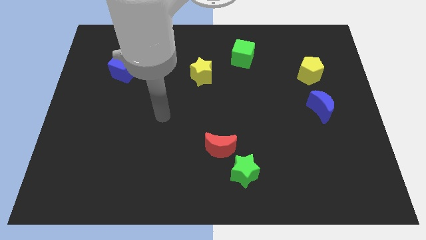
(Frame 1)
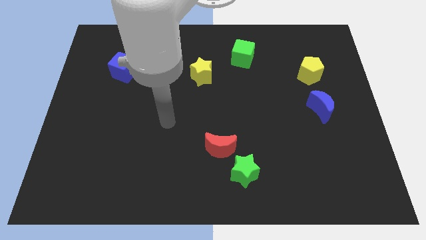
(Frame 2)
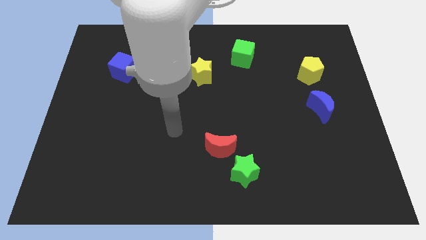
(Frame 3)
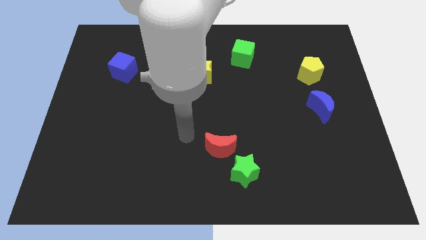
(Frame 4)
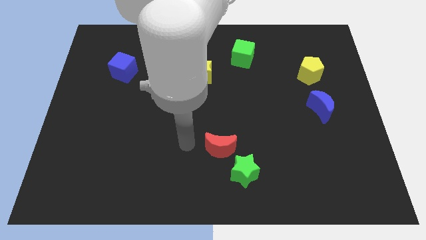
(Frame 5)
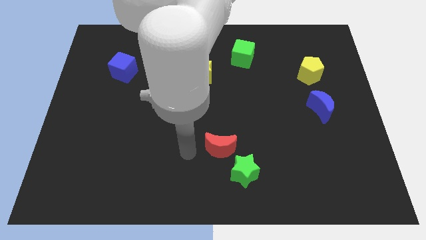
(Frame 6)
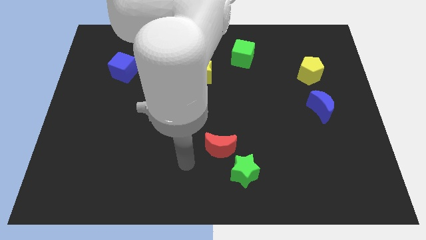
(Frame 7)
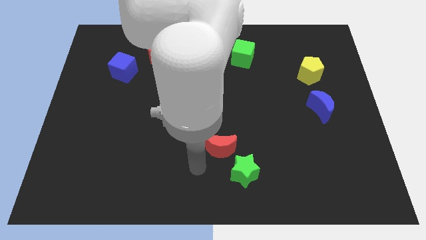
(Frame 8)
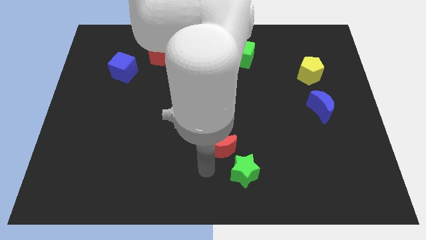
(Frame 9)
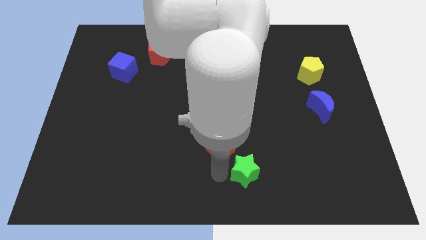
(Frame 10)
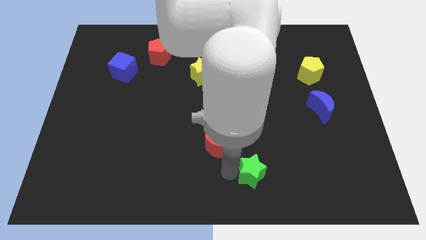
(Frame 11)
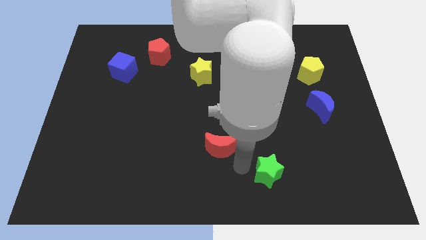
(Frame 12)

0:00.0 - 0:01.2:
move the red moon away from the green star

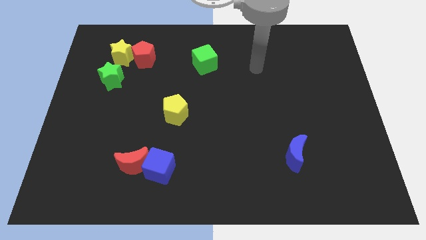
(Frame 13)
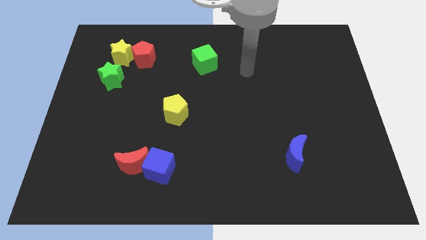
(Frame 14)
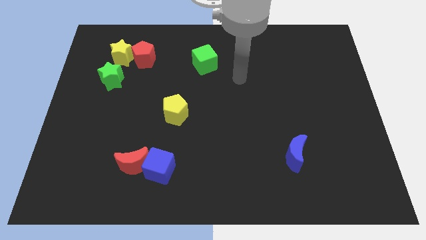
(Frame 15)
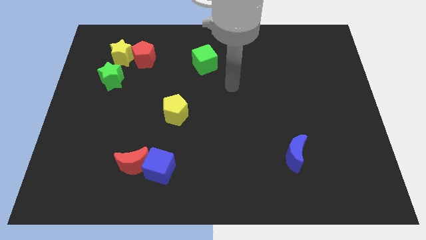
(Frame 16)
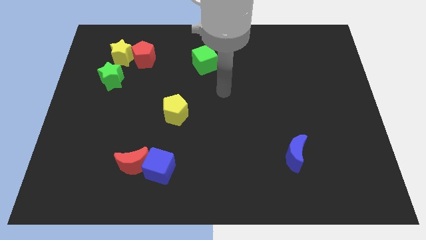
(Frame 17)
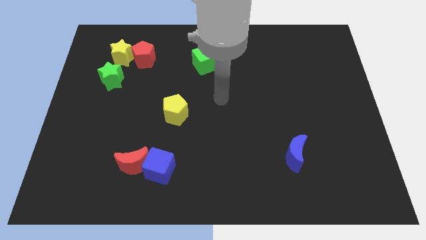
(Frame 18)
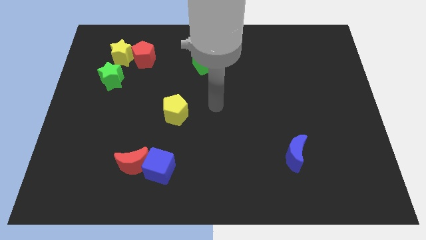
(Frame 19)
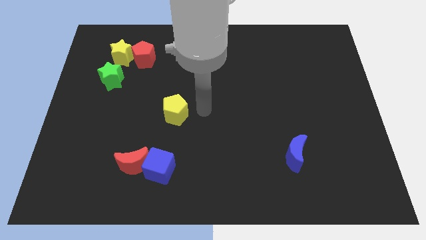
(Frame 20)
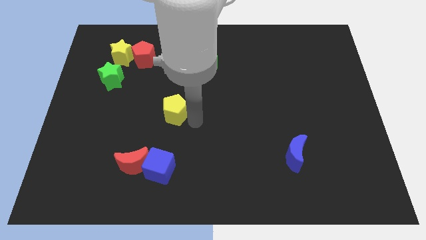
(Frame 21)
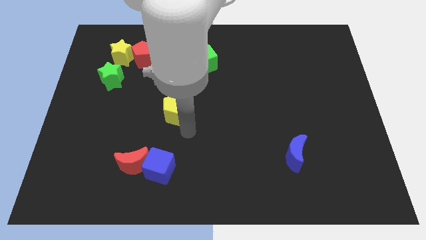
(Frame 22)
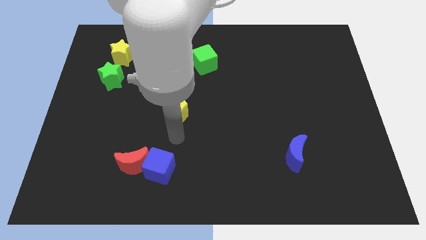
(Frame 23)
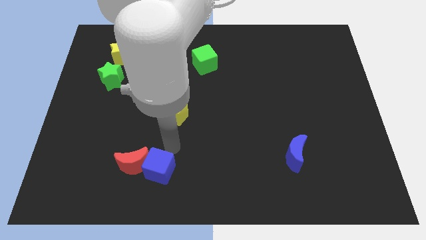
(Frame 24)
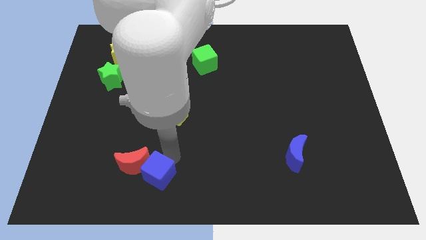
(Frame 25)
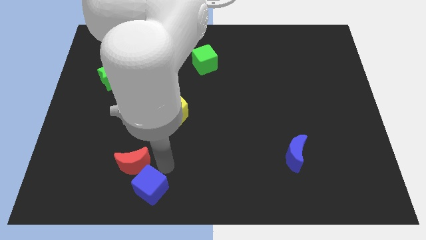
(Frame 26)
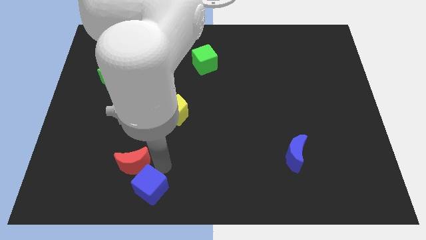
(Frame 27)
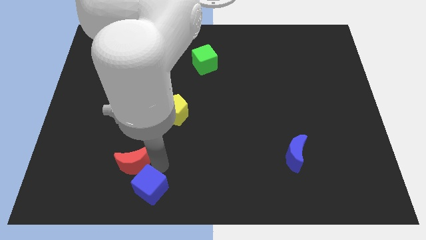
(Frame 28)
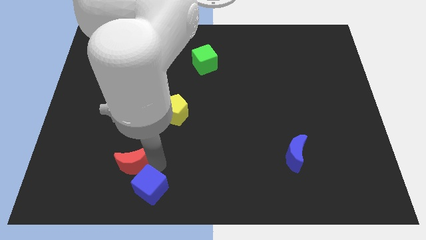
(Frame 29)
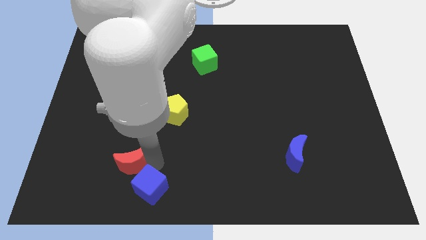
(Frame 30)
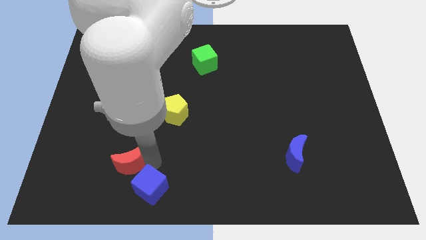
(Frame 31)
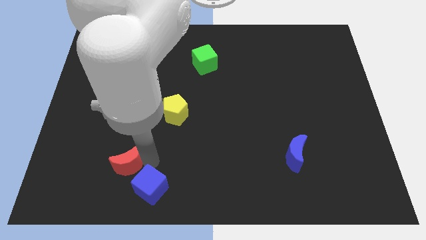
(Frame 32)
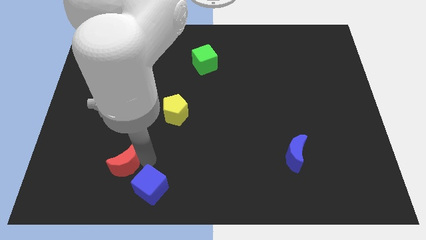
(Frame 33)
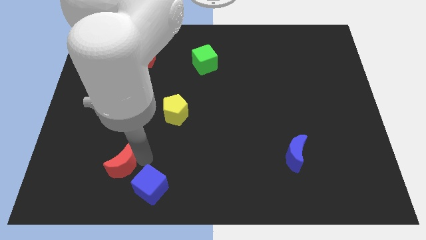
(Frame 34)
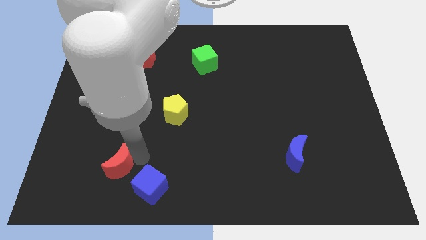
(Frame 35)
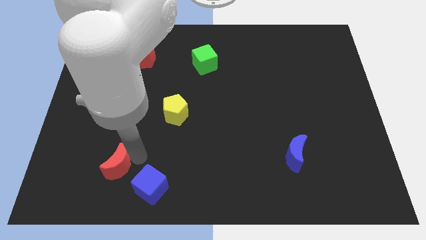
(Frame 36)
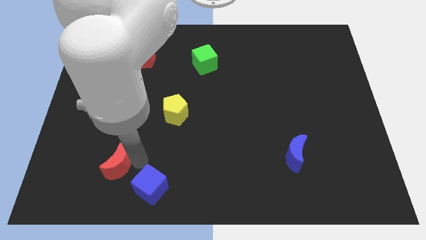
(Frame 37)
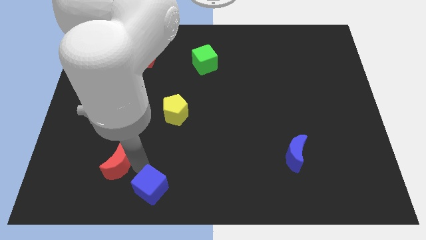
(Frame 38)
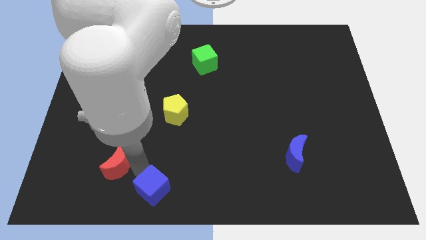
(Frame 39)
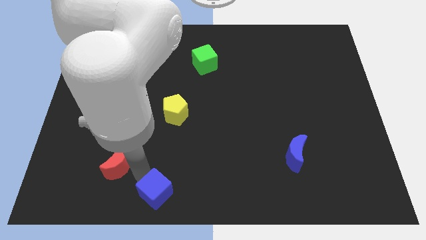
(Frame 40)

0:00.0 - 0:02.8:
separate the red moon from the blue cube

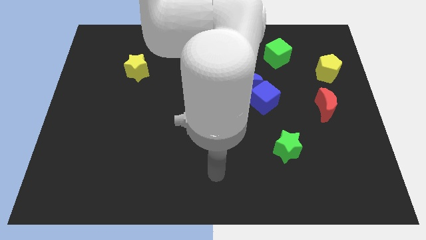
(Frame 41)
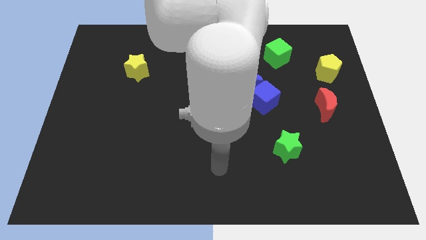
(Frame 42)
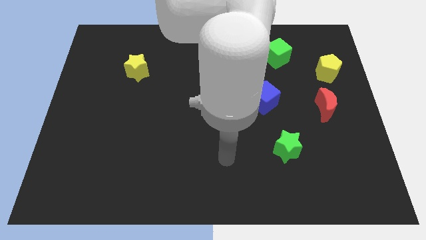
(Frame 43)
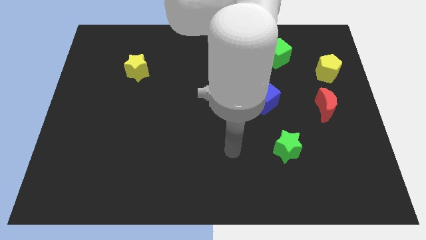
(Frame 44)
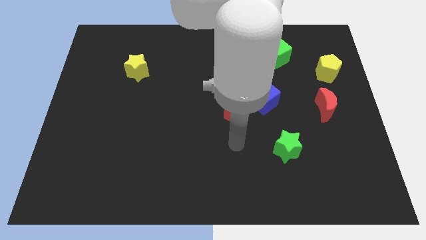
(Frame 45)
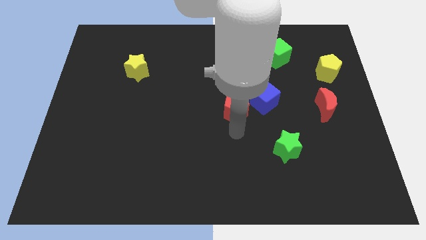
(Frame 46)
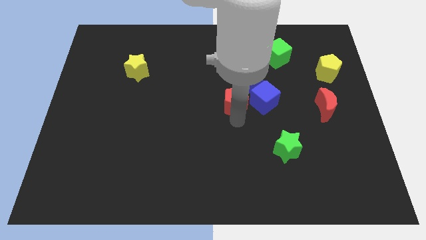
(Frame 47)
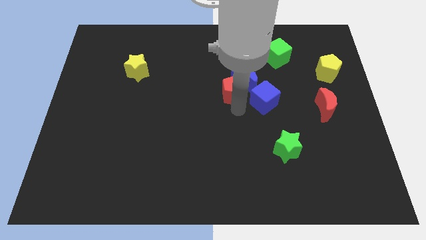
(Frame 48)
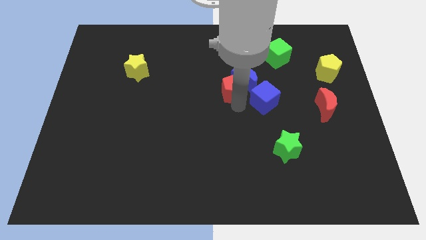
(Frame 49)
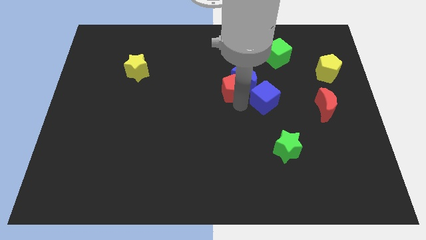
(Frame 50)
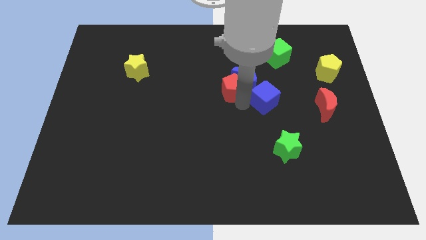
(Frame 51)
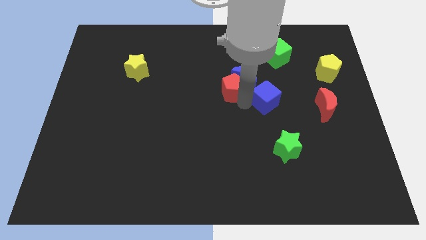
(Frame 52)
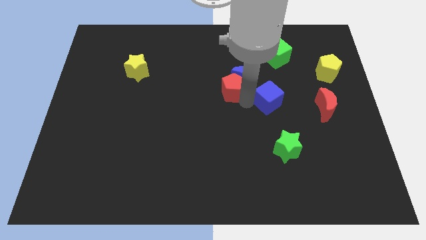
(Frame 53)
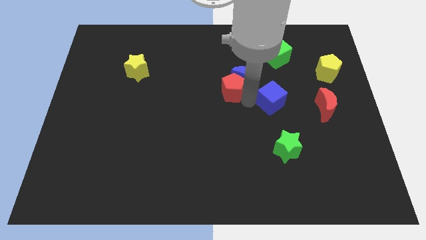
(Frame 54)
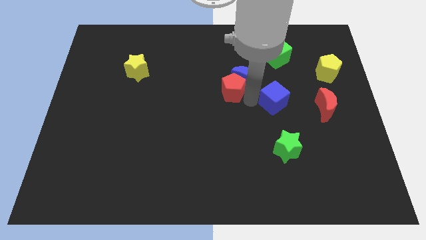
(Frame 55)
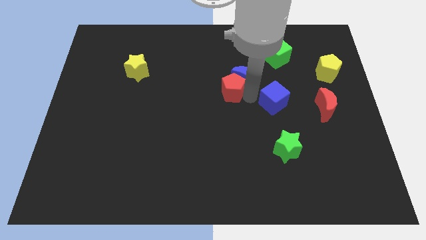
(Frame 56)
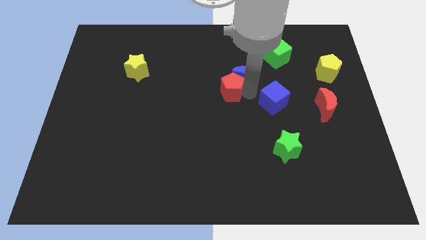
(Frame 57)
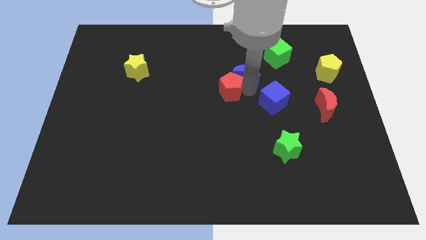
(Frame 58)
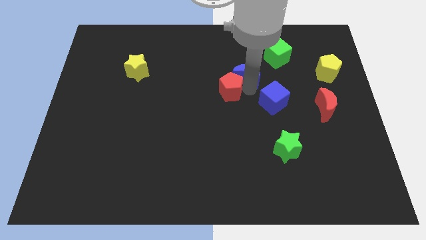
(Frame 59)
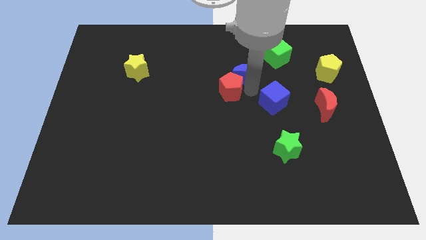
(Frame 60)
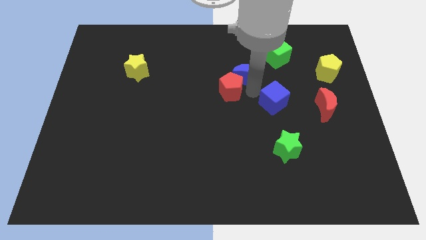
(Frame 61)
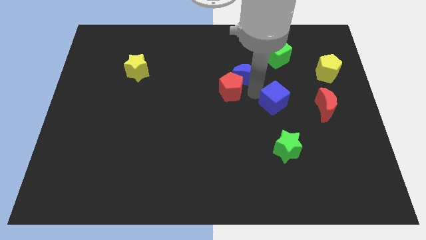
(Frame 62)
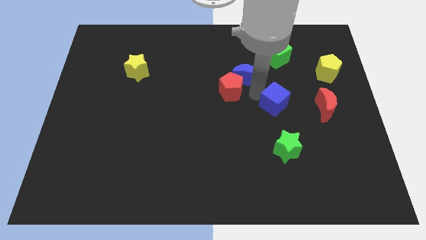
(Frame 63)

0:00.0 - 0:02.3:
separate the blue cube from the blue moon and red pentagon

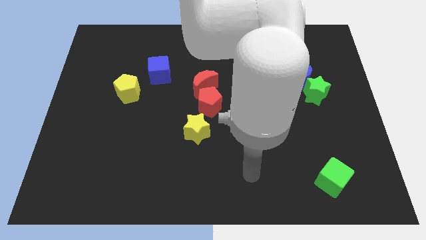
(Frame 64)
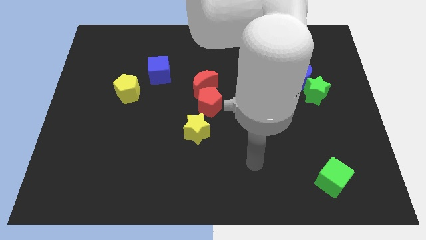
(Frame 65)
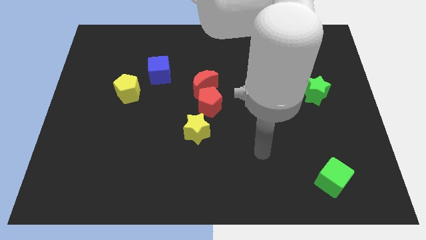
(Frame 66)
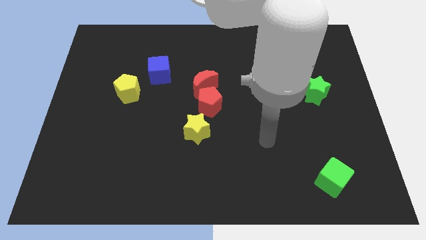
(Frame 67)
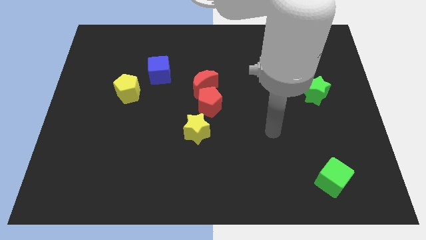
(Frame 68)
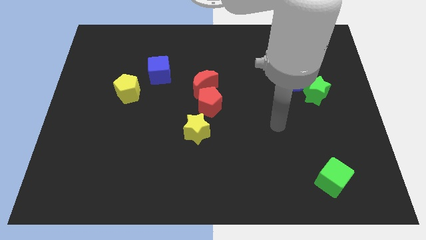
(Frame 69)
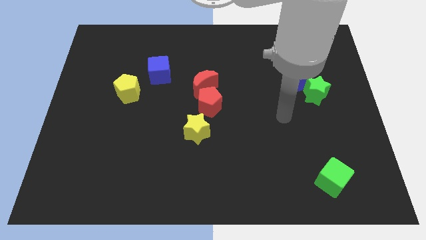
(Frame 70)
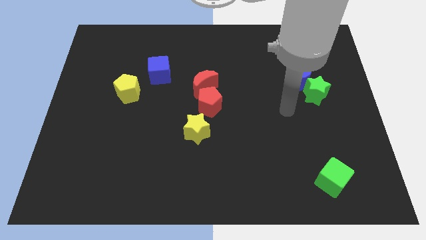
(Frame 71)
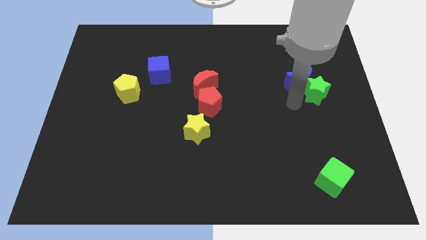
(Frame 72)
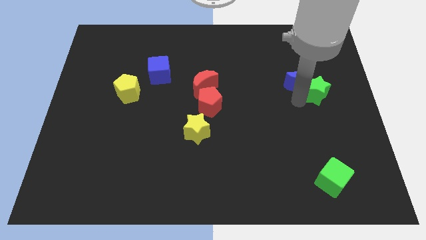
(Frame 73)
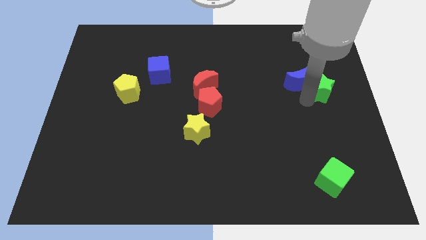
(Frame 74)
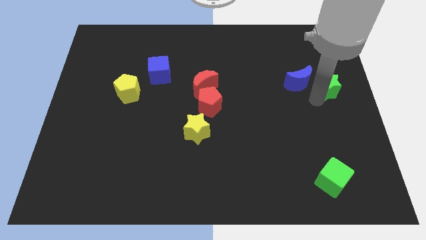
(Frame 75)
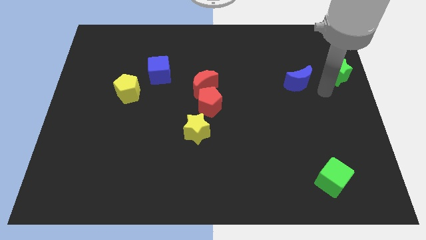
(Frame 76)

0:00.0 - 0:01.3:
pull the blue moon apart from the green star

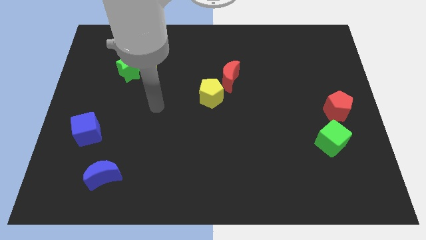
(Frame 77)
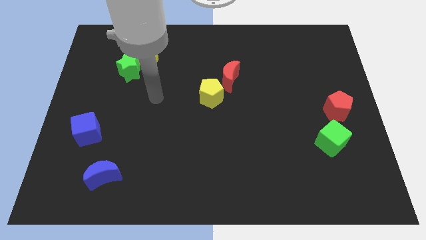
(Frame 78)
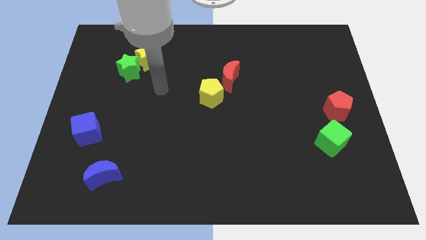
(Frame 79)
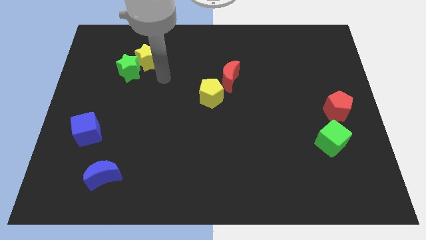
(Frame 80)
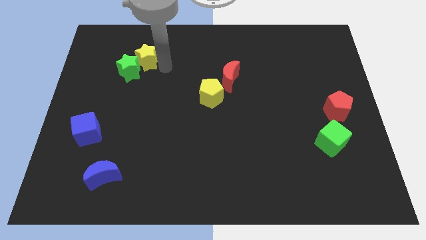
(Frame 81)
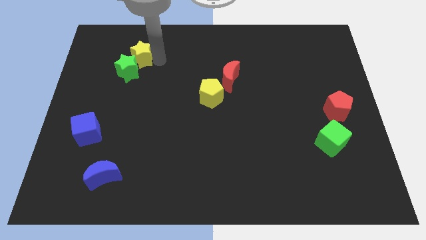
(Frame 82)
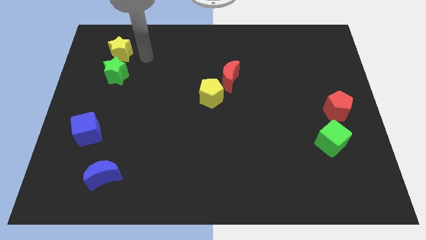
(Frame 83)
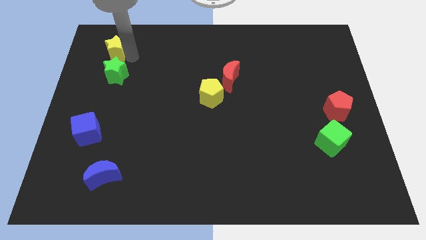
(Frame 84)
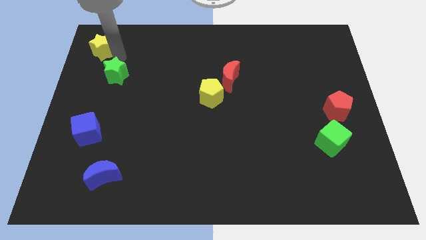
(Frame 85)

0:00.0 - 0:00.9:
pull the green star apart from the yellow star

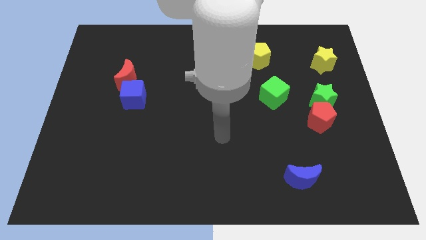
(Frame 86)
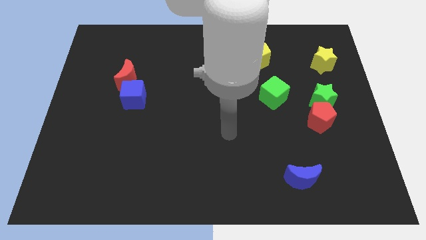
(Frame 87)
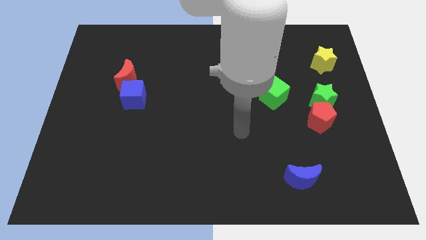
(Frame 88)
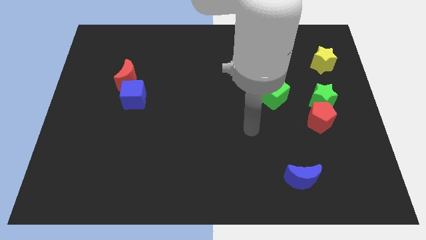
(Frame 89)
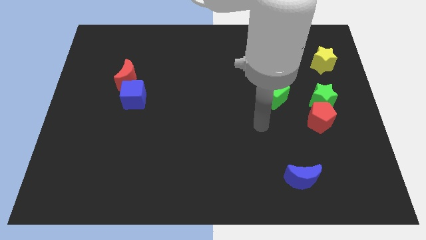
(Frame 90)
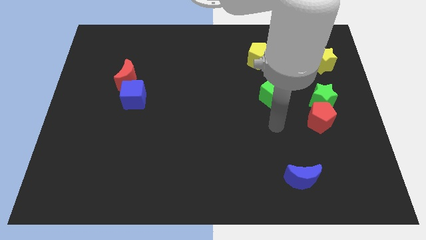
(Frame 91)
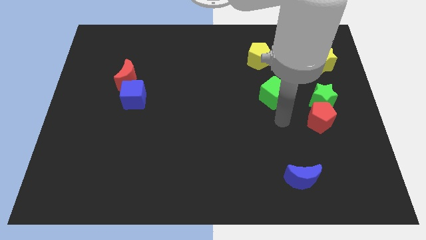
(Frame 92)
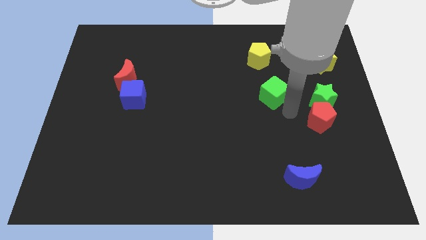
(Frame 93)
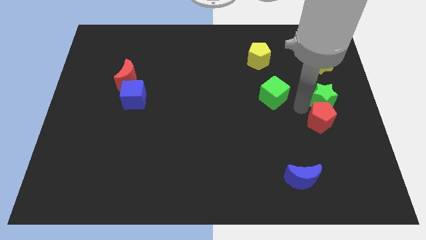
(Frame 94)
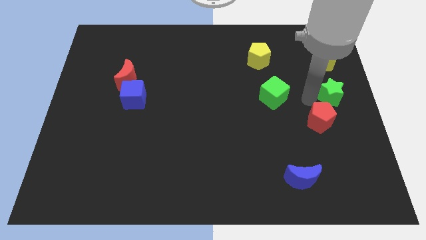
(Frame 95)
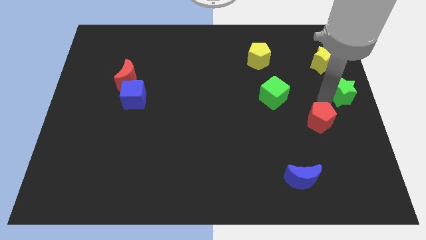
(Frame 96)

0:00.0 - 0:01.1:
separate the red pentagon from the green star
